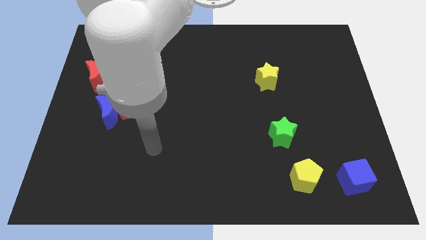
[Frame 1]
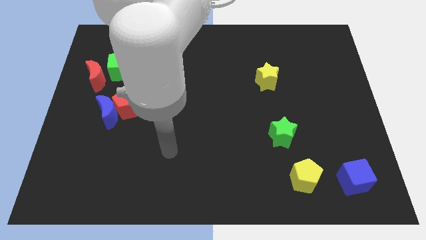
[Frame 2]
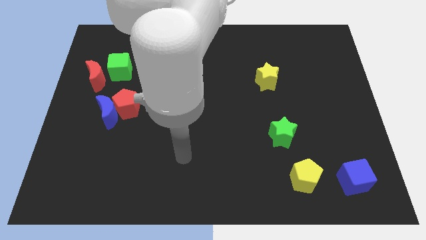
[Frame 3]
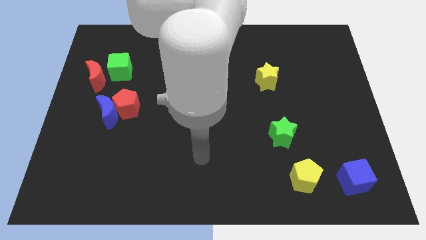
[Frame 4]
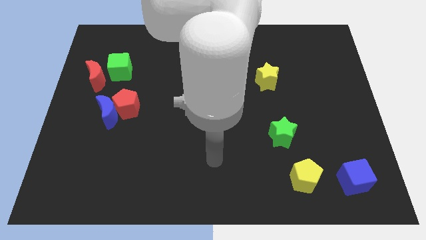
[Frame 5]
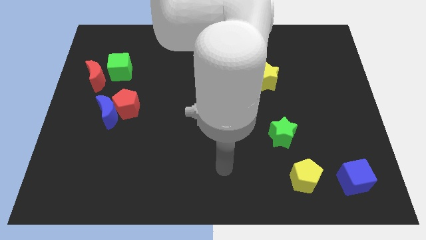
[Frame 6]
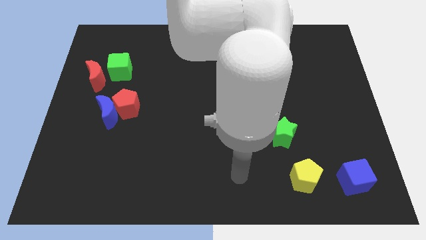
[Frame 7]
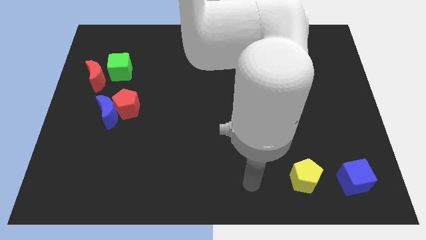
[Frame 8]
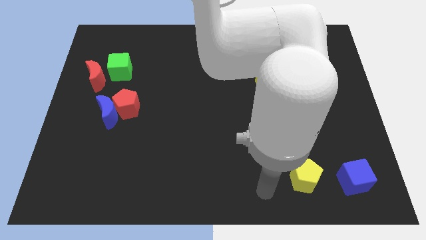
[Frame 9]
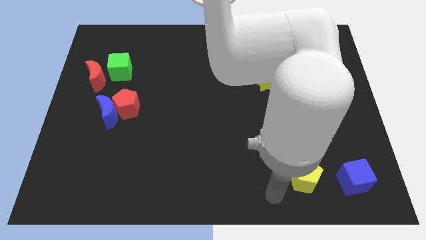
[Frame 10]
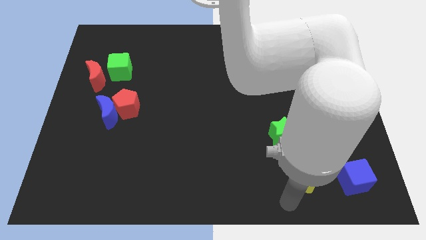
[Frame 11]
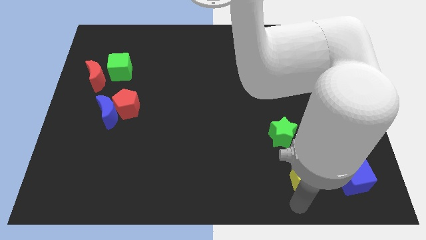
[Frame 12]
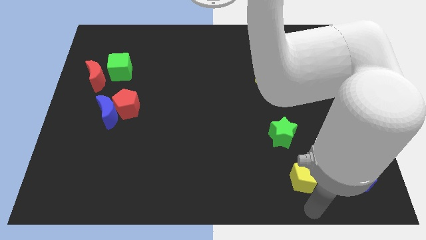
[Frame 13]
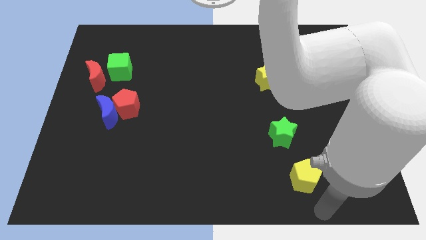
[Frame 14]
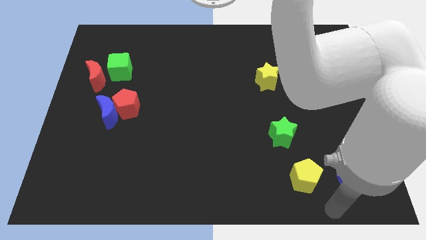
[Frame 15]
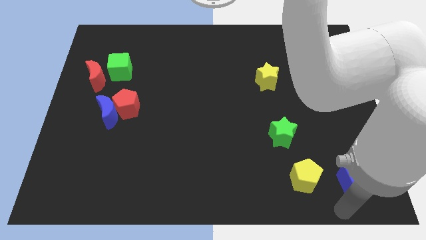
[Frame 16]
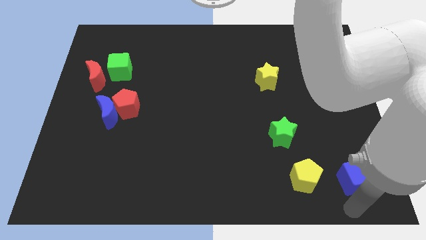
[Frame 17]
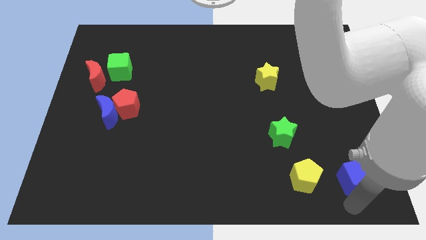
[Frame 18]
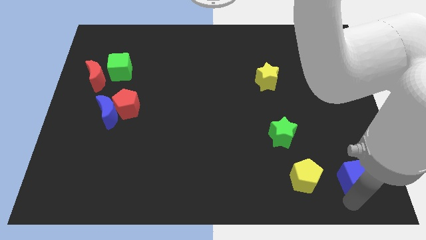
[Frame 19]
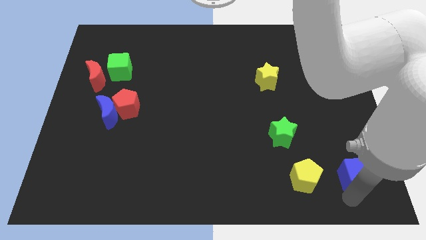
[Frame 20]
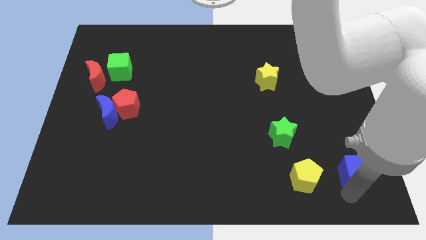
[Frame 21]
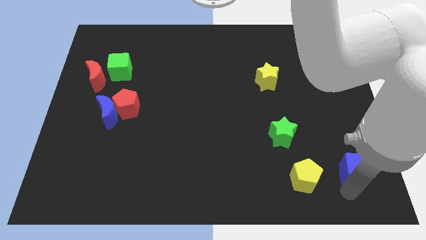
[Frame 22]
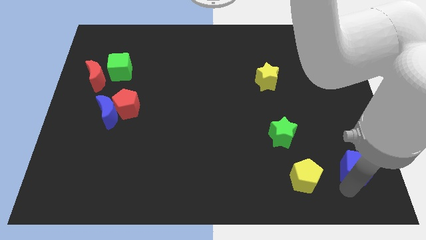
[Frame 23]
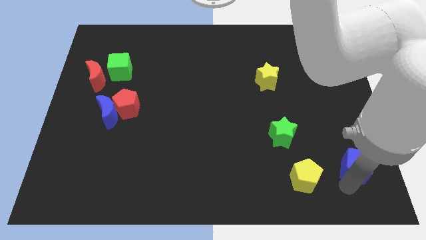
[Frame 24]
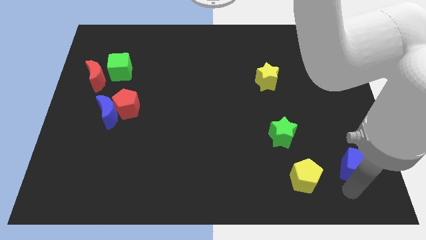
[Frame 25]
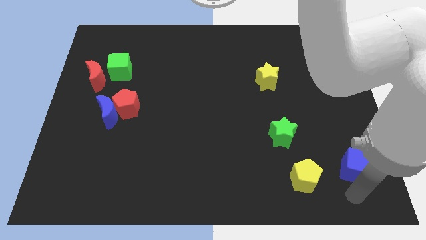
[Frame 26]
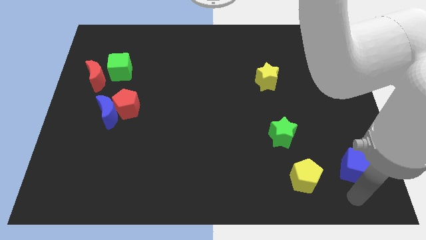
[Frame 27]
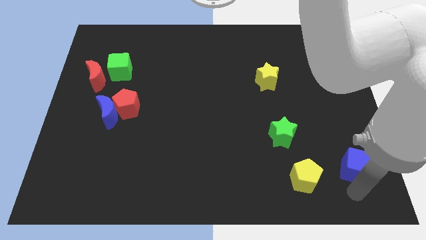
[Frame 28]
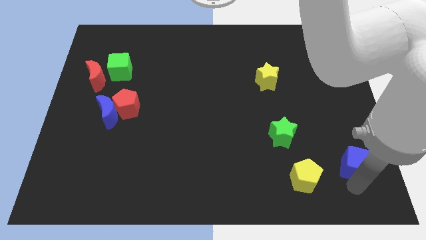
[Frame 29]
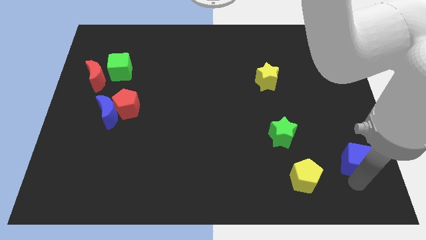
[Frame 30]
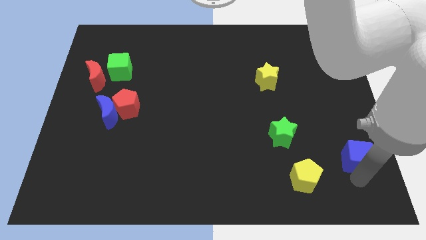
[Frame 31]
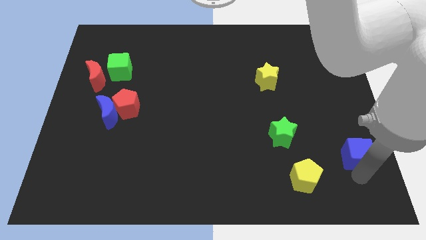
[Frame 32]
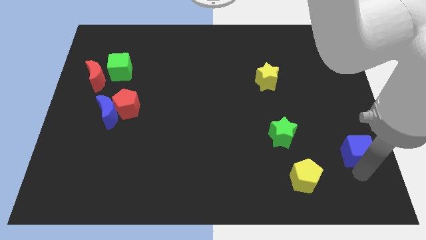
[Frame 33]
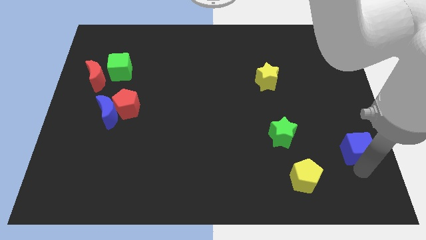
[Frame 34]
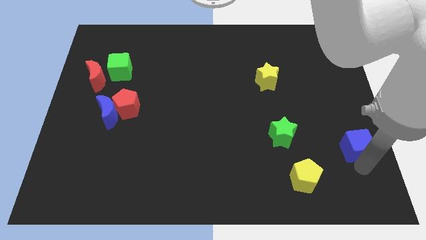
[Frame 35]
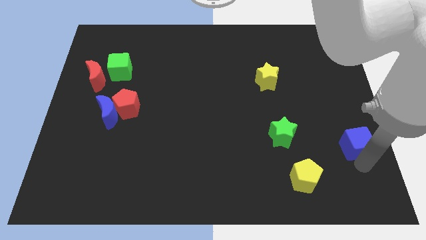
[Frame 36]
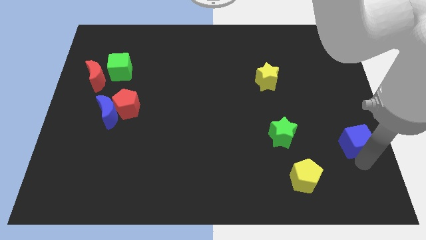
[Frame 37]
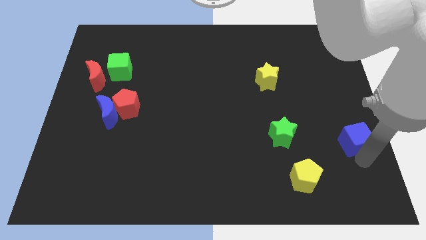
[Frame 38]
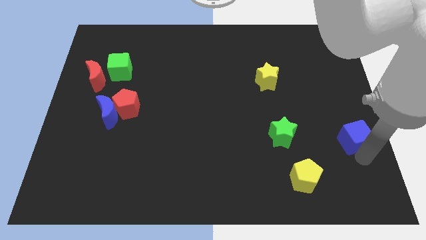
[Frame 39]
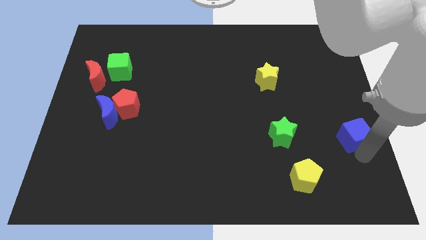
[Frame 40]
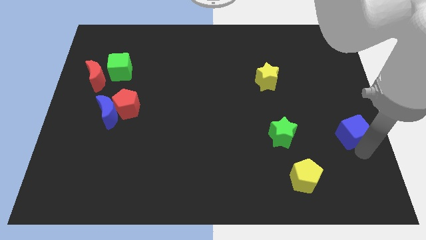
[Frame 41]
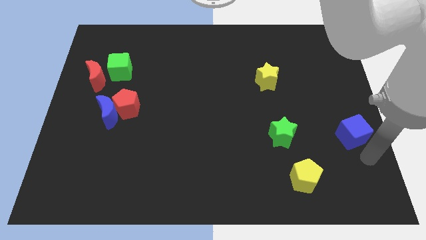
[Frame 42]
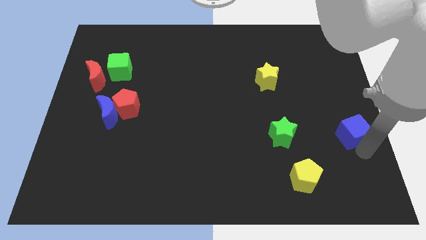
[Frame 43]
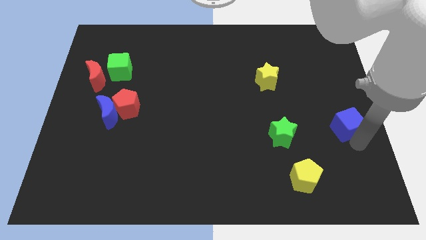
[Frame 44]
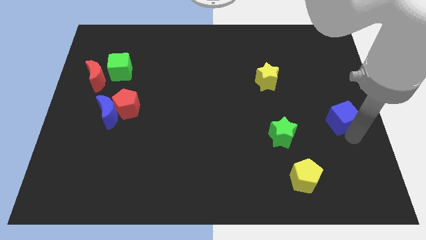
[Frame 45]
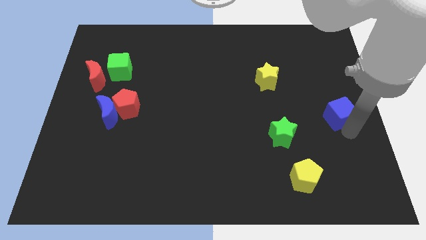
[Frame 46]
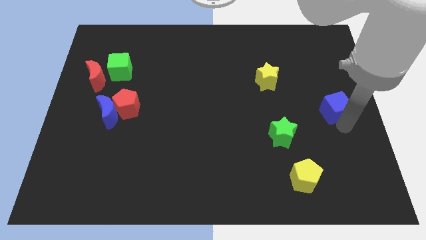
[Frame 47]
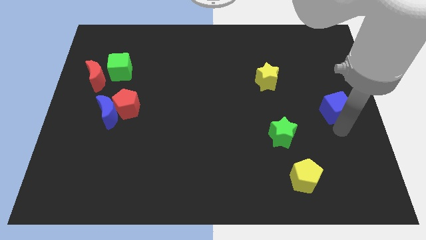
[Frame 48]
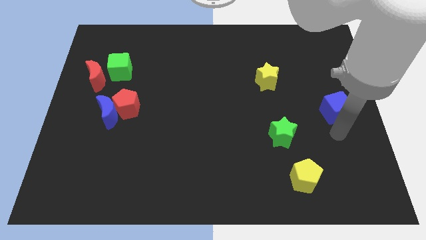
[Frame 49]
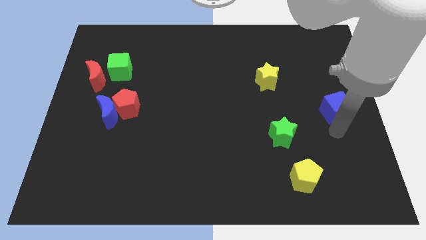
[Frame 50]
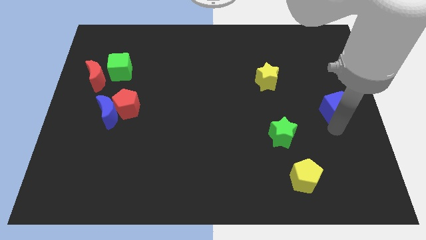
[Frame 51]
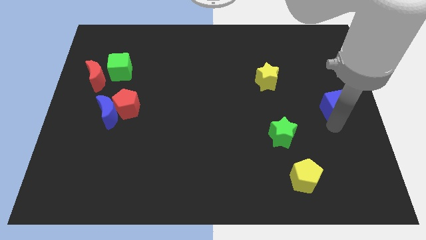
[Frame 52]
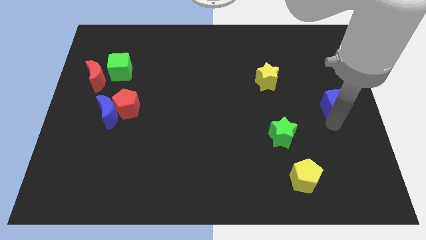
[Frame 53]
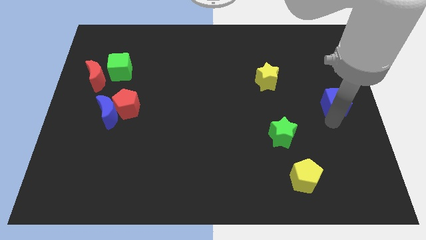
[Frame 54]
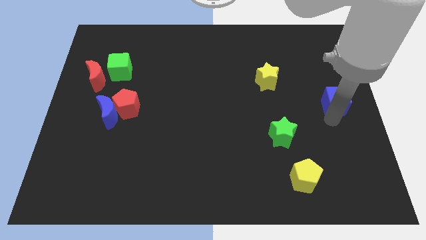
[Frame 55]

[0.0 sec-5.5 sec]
push the blue cube upwards

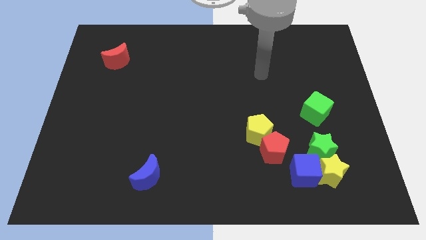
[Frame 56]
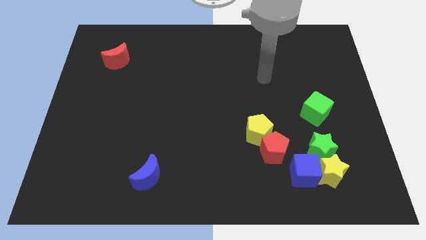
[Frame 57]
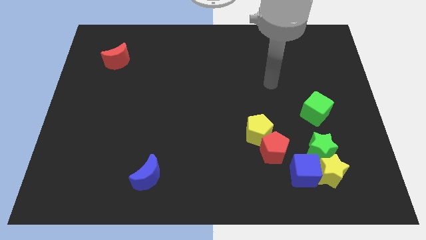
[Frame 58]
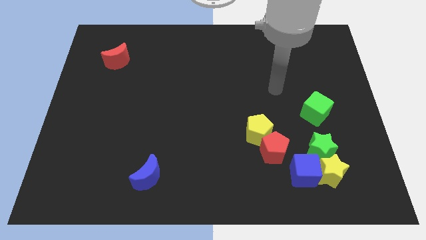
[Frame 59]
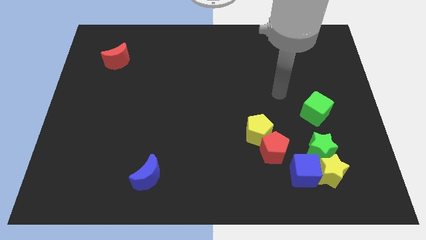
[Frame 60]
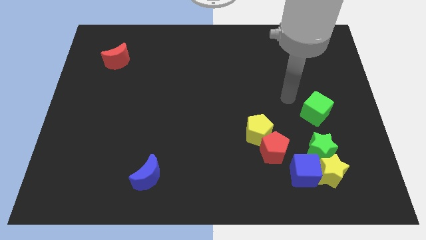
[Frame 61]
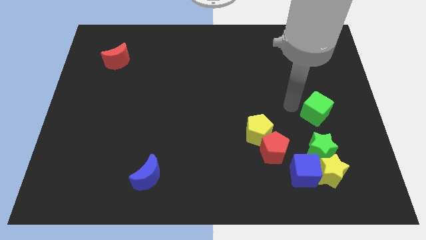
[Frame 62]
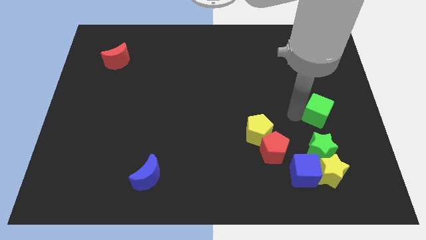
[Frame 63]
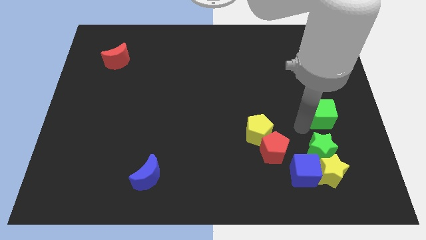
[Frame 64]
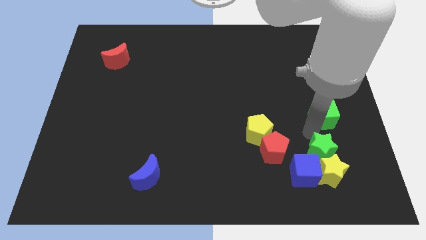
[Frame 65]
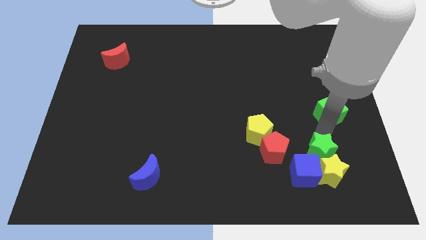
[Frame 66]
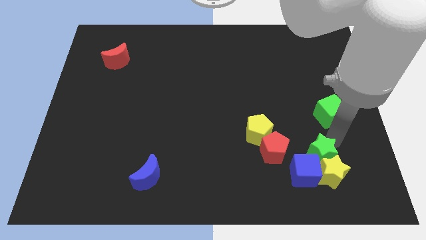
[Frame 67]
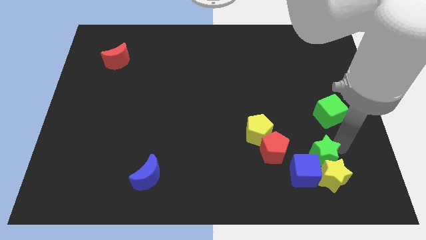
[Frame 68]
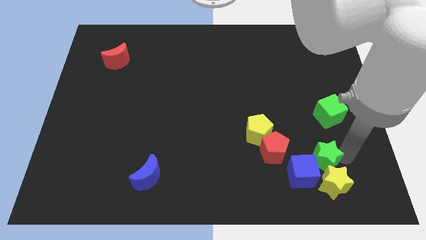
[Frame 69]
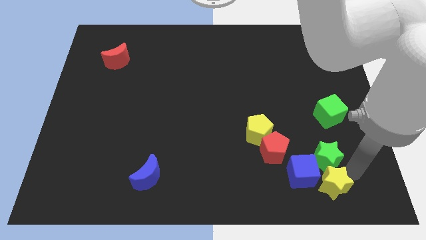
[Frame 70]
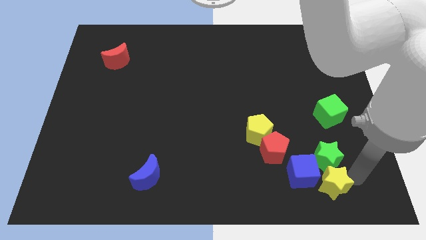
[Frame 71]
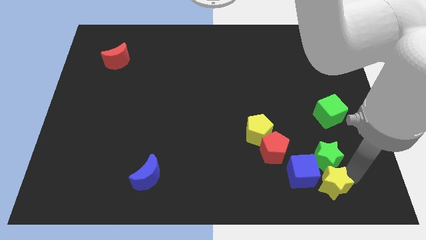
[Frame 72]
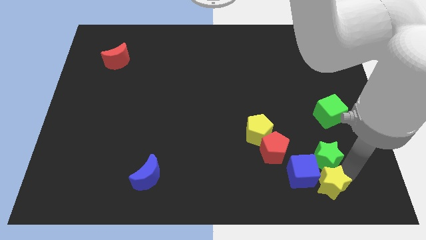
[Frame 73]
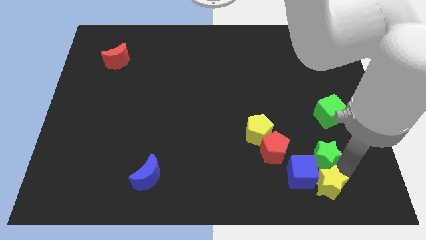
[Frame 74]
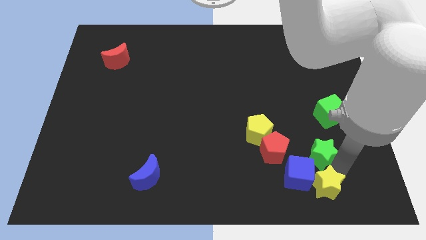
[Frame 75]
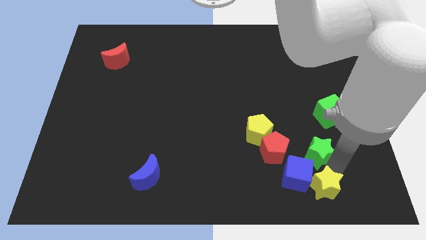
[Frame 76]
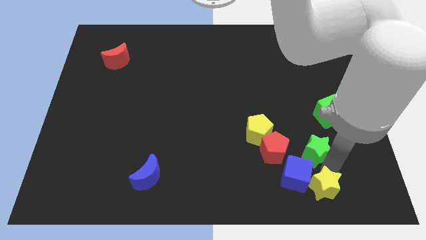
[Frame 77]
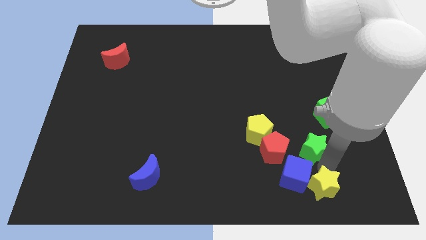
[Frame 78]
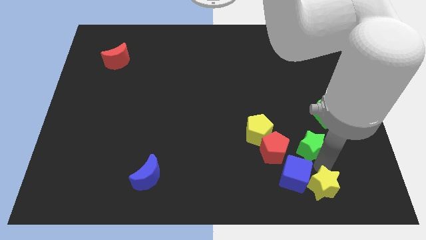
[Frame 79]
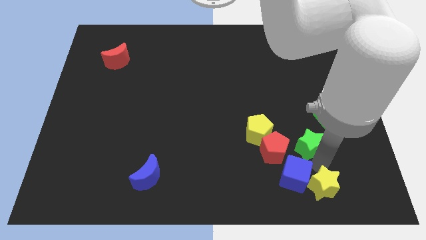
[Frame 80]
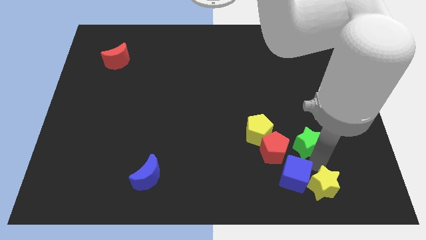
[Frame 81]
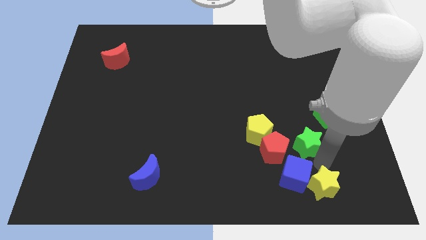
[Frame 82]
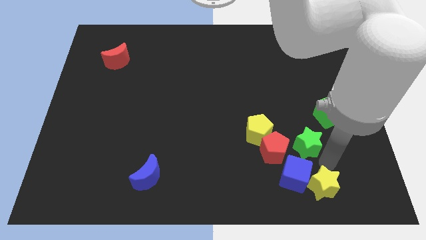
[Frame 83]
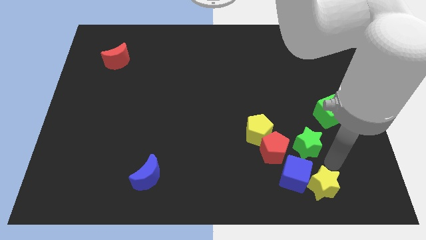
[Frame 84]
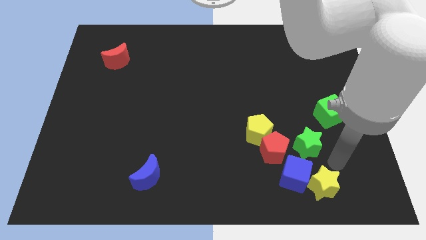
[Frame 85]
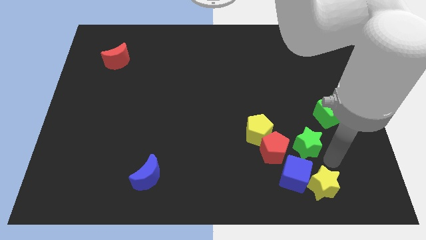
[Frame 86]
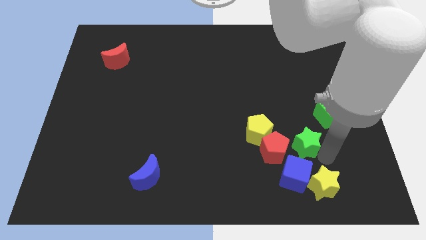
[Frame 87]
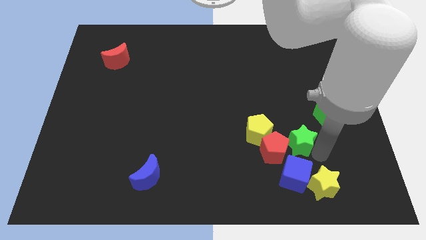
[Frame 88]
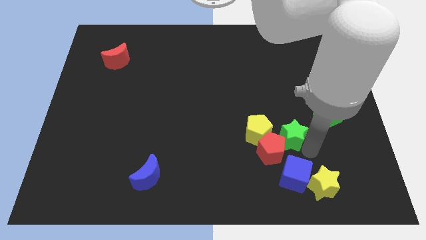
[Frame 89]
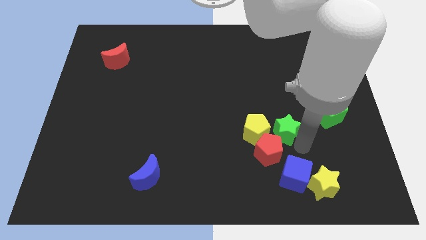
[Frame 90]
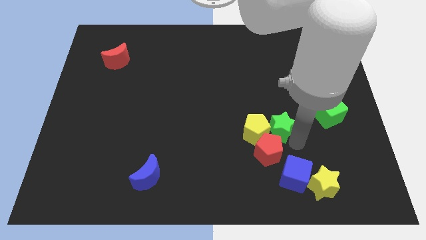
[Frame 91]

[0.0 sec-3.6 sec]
move the green star a little to the left
